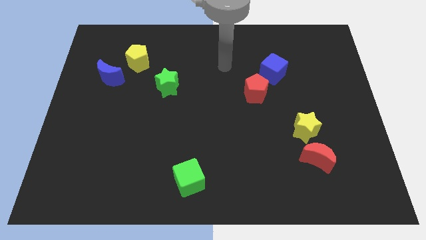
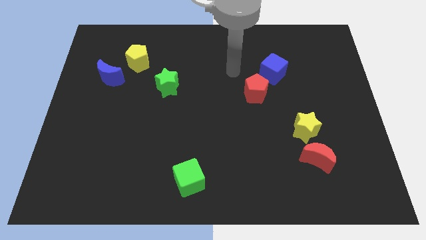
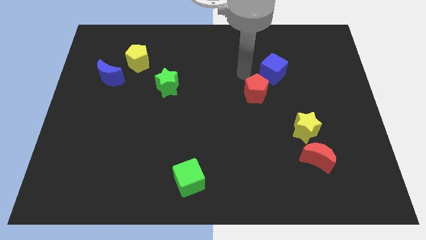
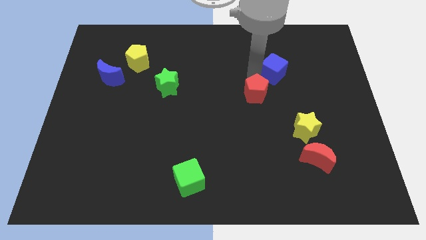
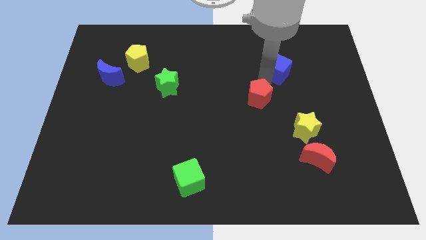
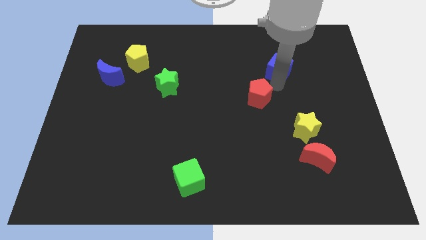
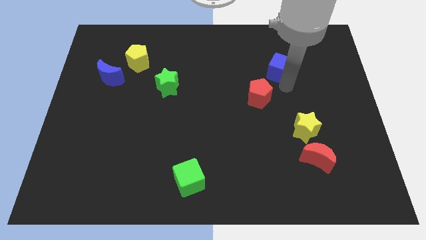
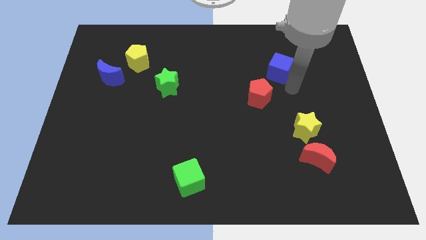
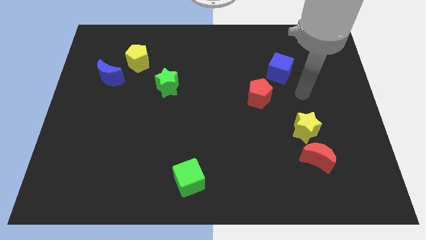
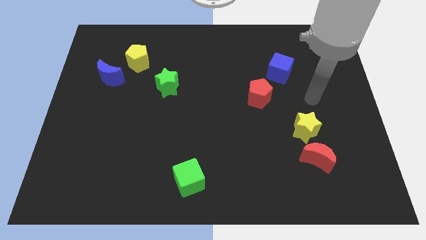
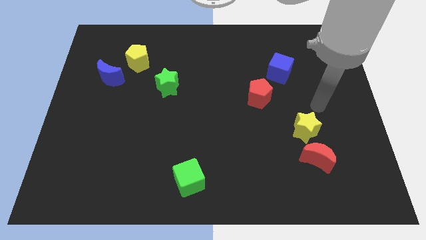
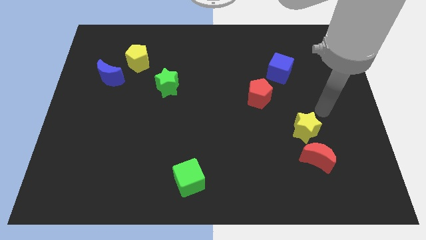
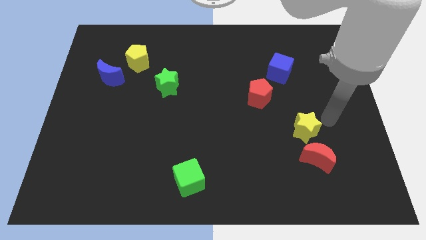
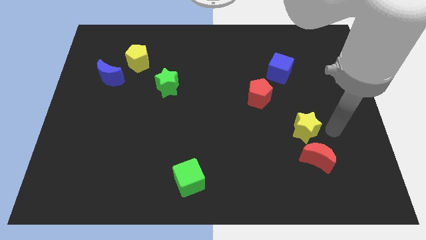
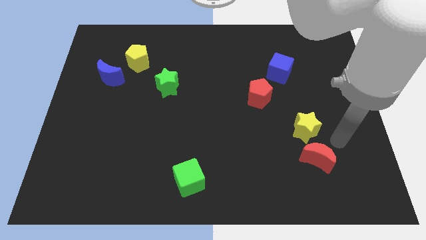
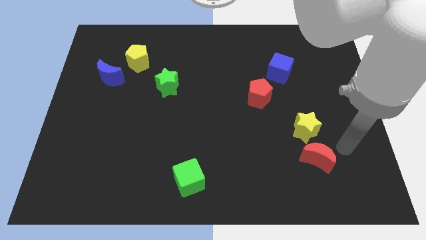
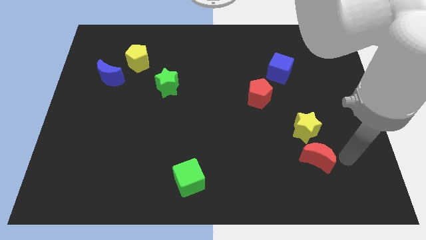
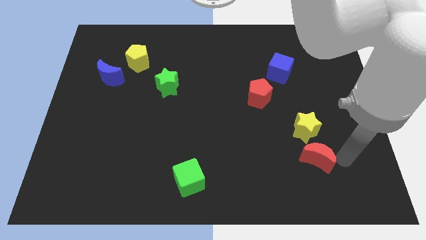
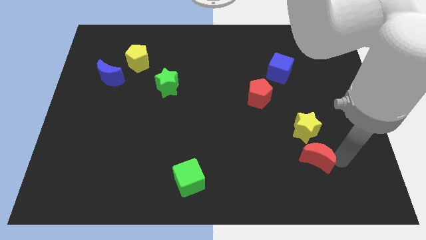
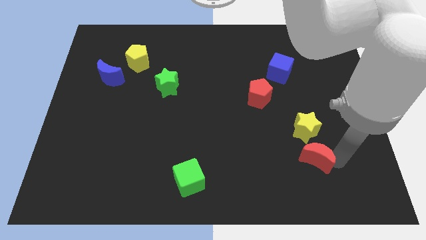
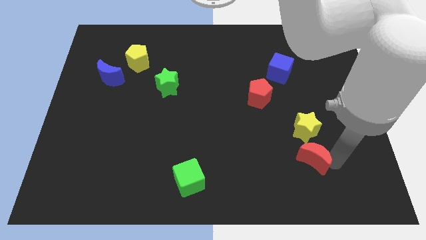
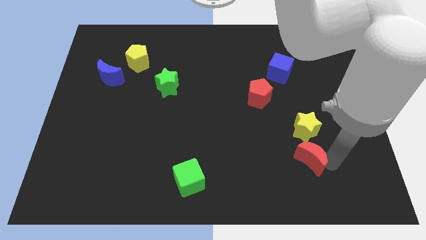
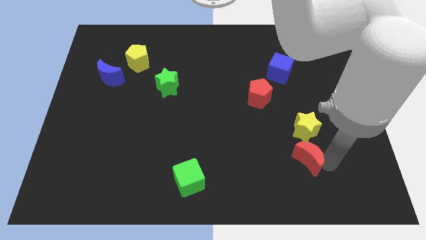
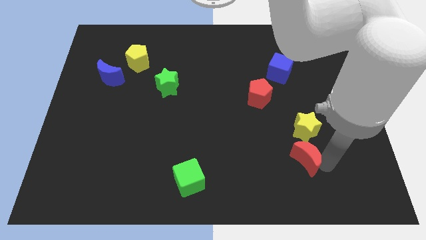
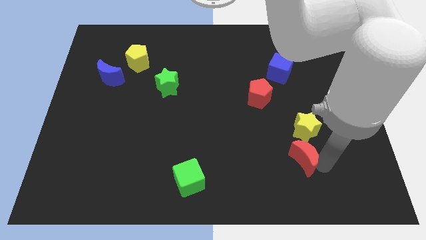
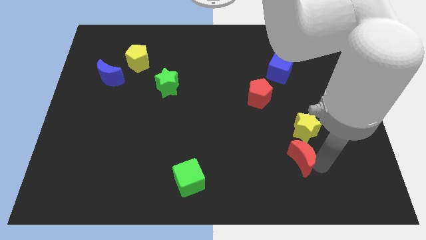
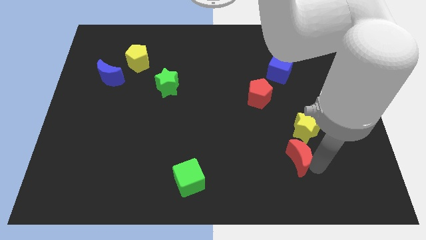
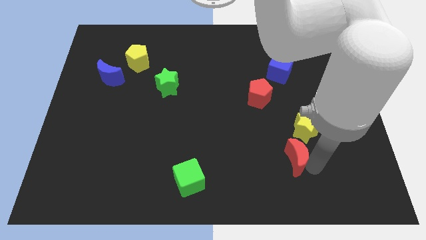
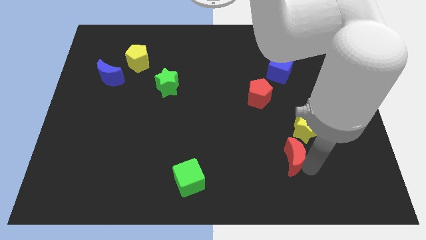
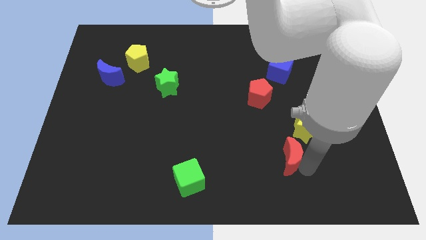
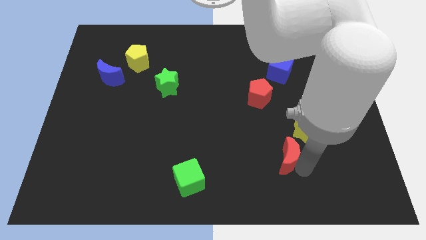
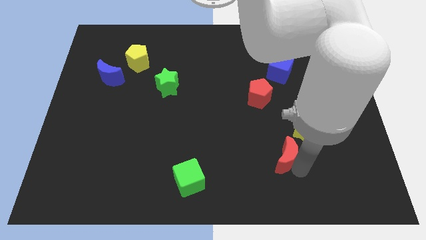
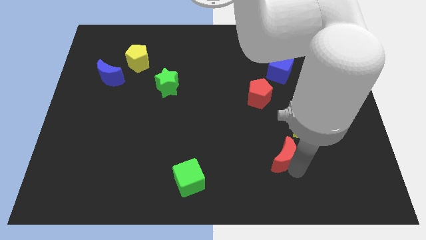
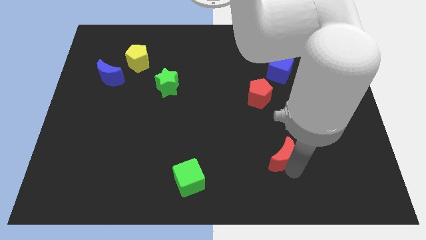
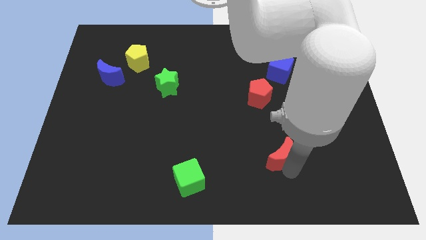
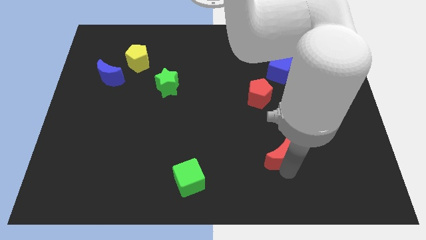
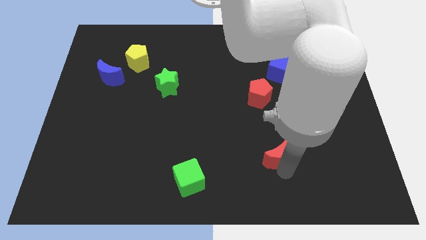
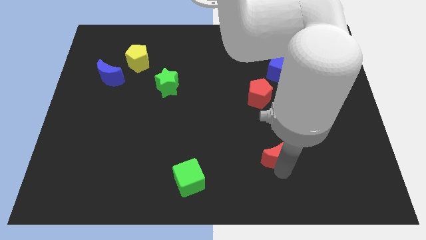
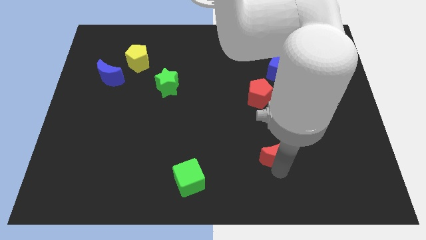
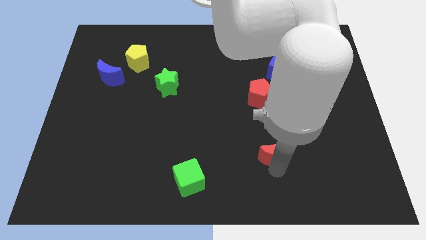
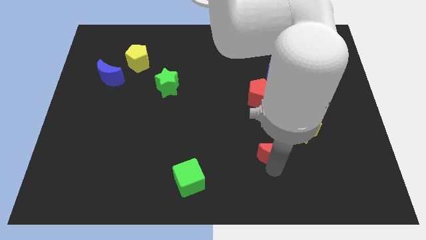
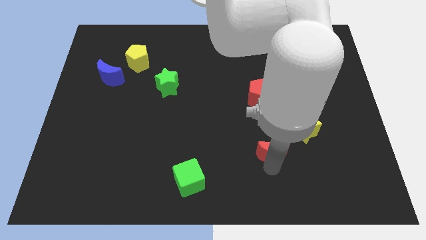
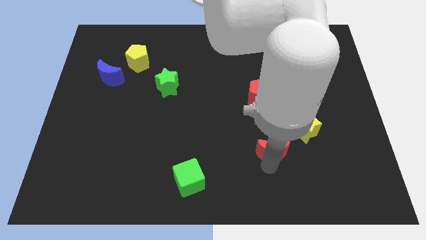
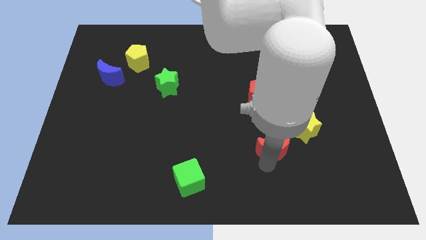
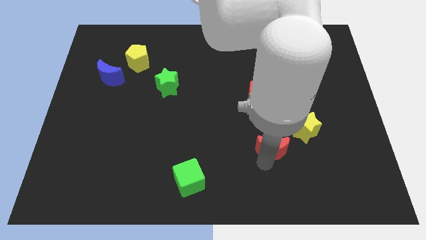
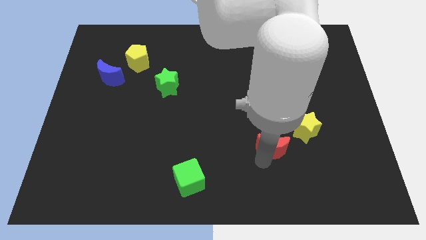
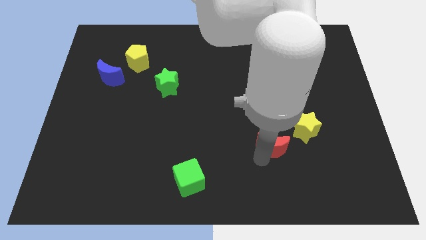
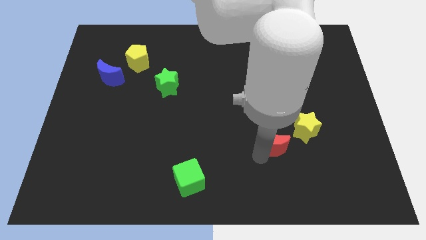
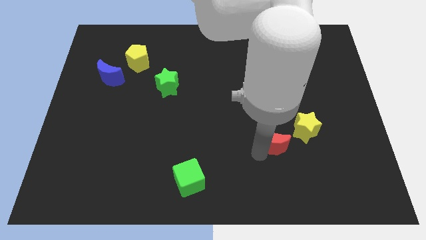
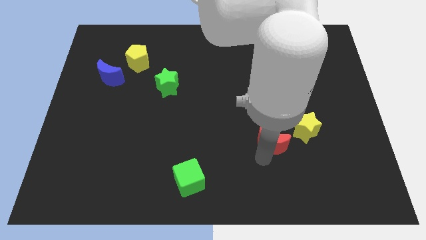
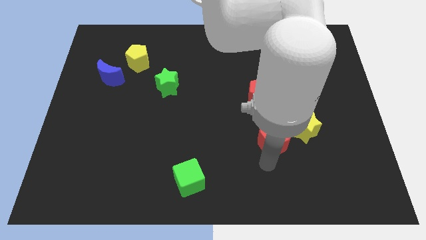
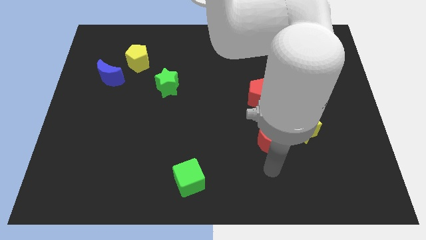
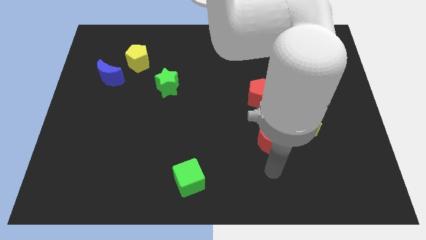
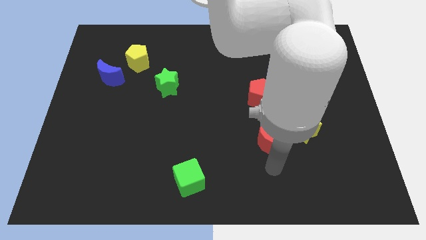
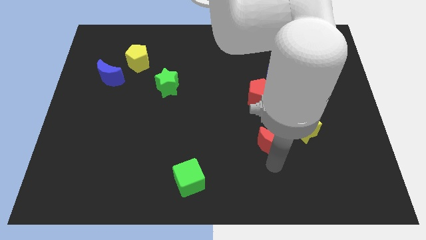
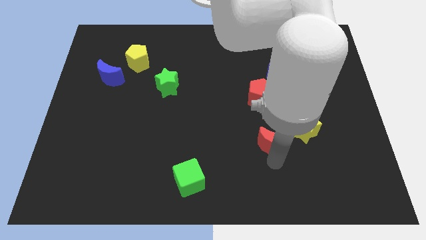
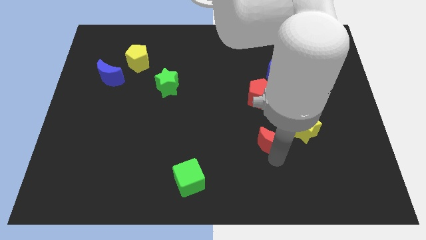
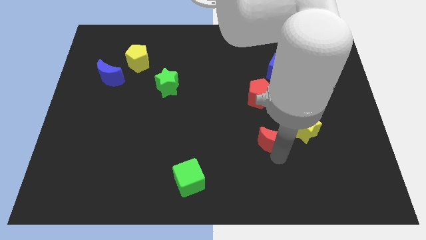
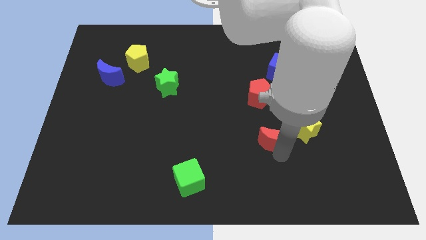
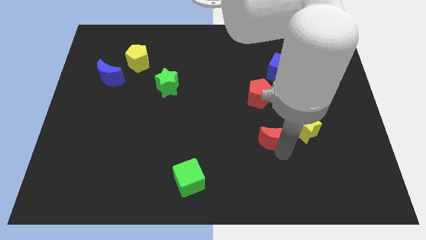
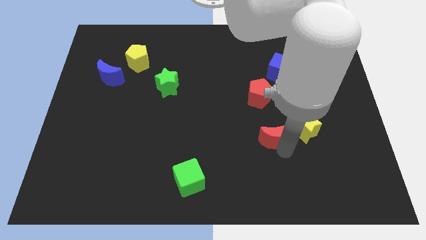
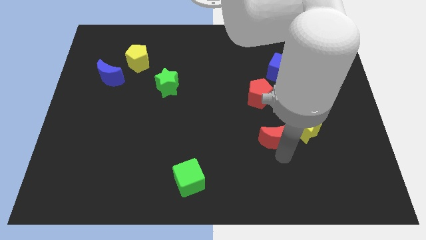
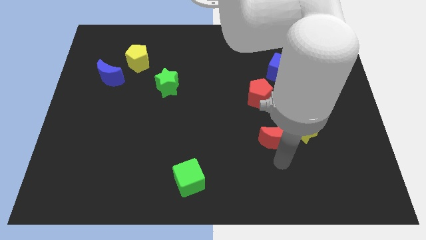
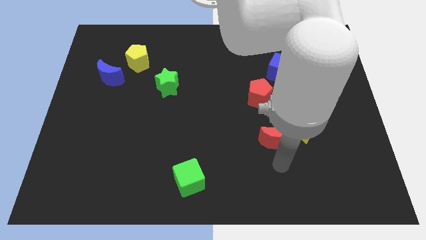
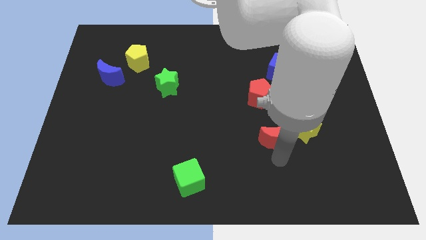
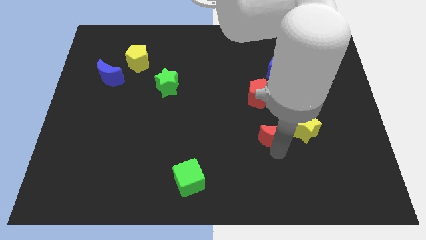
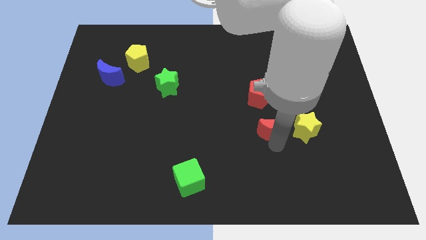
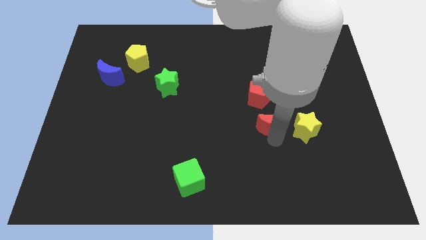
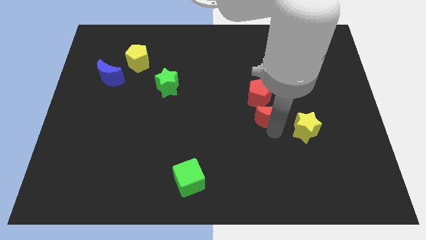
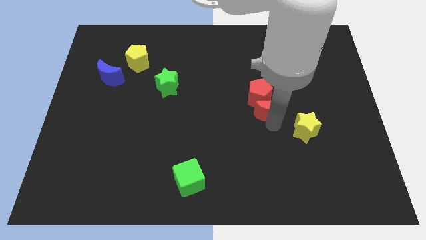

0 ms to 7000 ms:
move the red moon next to the red pentagon
